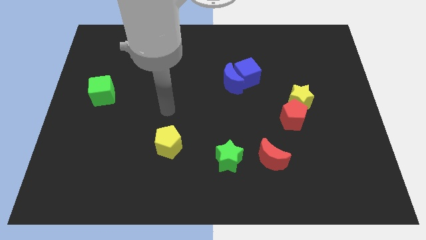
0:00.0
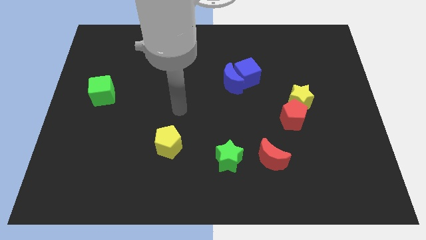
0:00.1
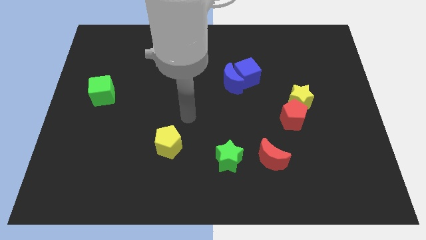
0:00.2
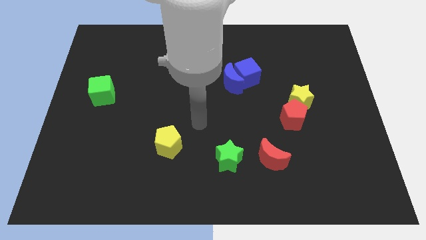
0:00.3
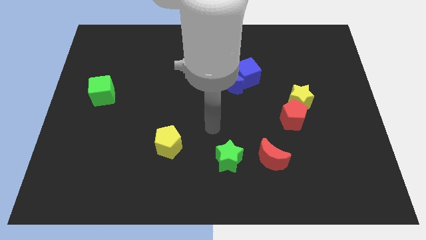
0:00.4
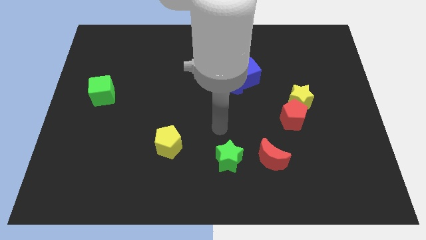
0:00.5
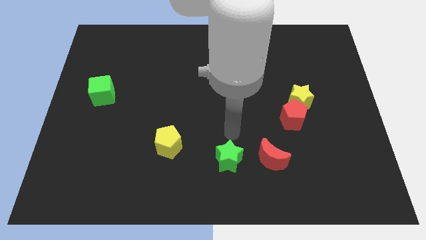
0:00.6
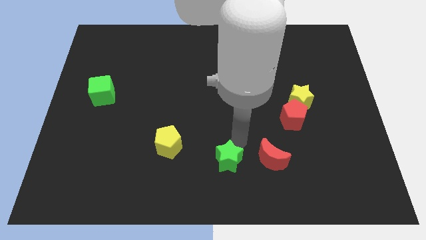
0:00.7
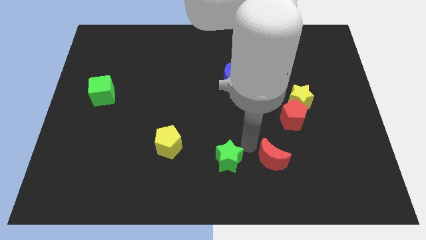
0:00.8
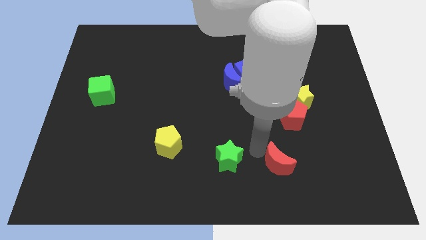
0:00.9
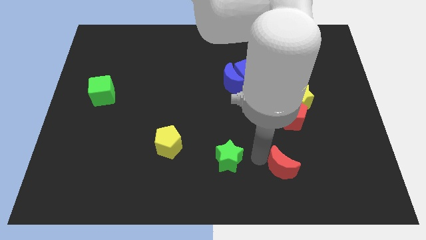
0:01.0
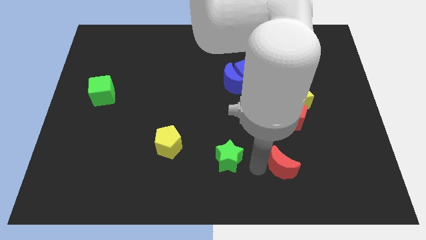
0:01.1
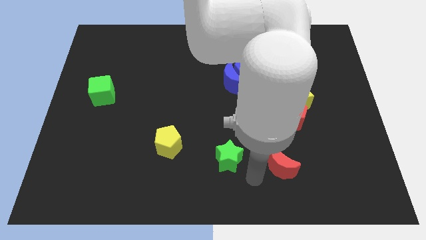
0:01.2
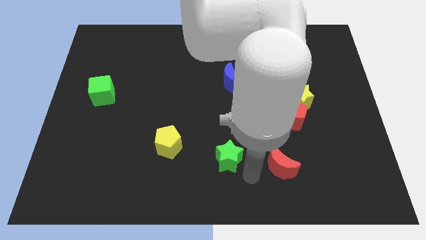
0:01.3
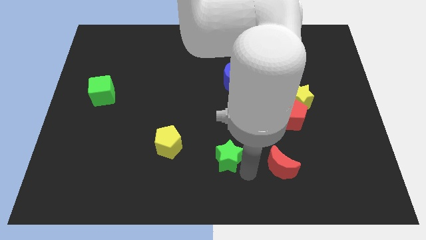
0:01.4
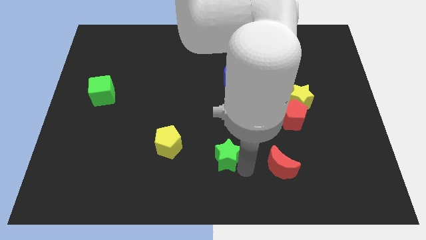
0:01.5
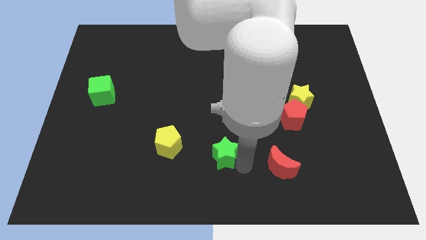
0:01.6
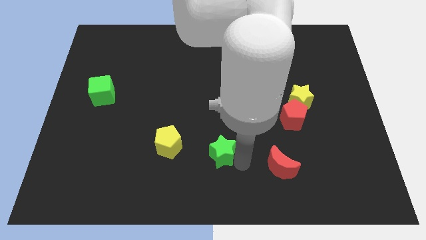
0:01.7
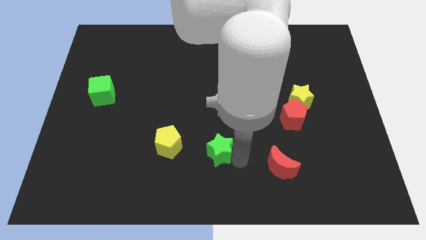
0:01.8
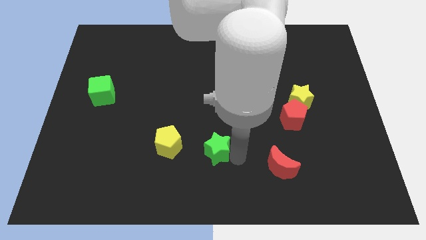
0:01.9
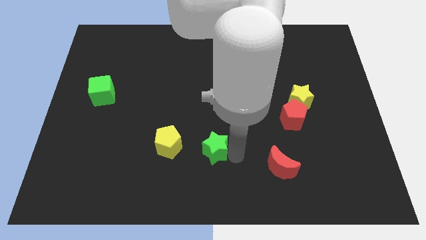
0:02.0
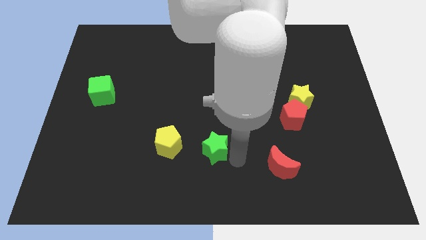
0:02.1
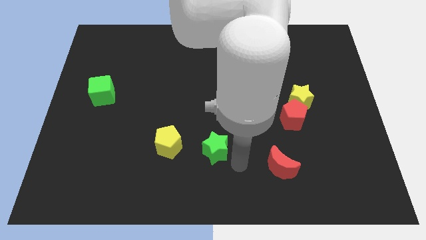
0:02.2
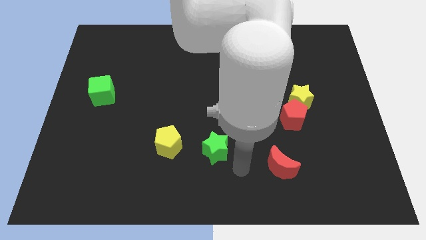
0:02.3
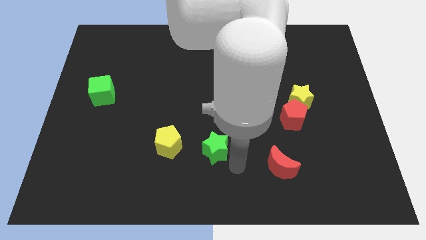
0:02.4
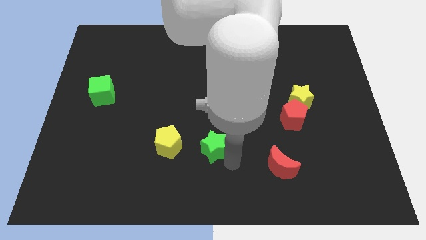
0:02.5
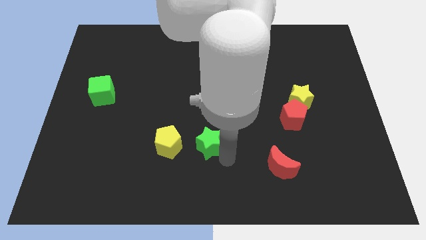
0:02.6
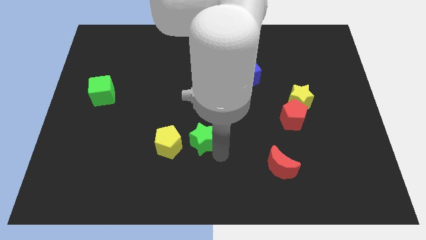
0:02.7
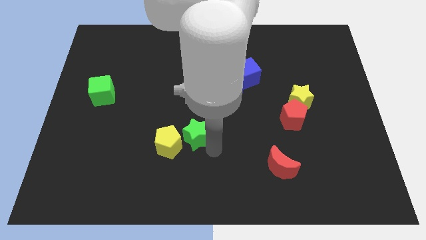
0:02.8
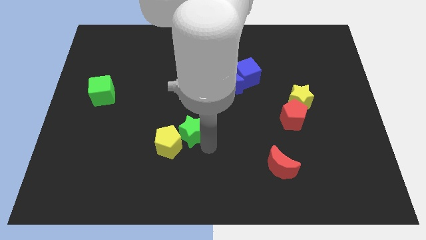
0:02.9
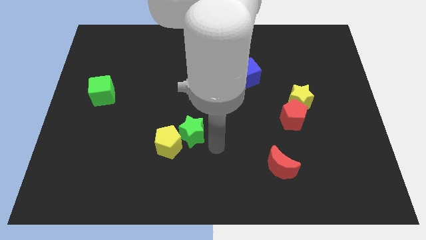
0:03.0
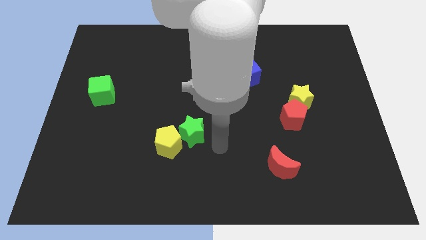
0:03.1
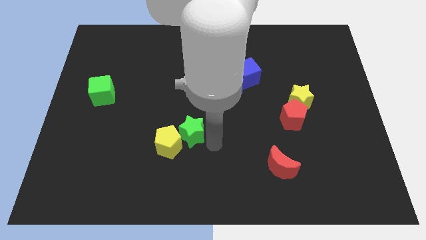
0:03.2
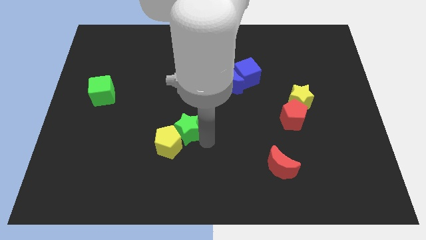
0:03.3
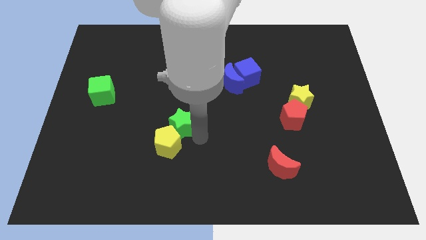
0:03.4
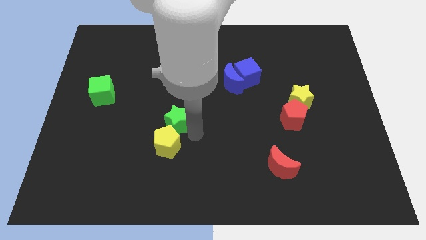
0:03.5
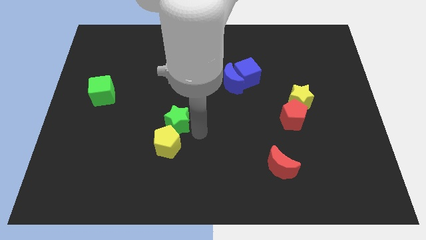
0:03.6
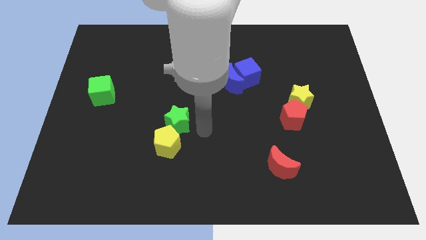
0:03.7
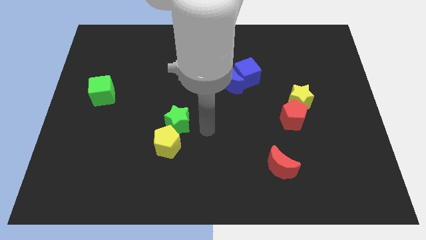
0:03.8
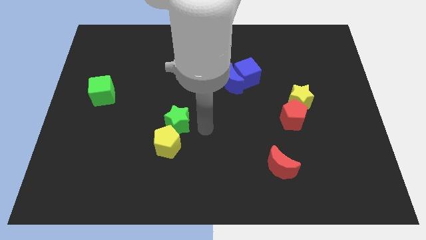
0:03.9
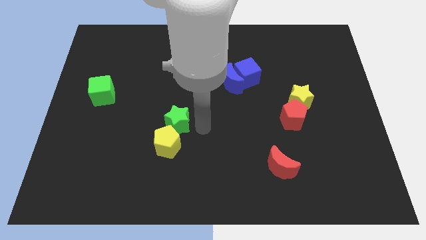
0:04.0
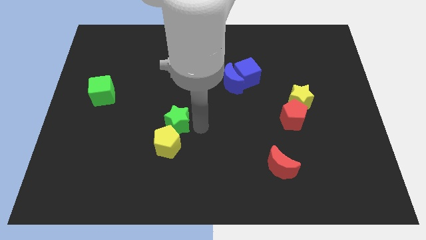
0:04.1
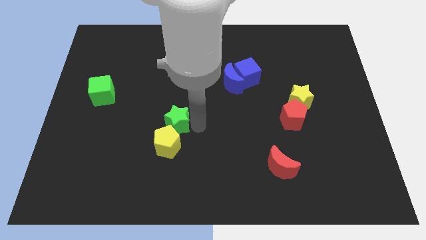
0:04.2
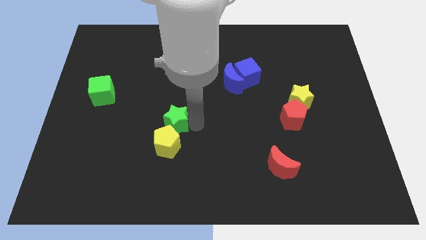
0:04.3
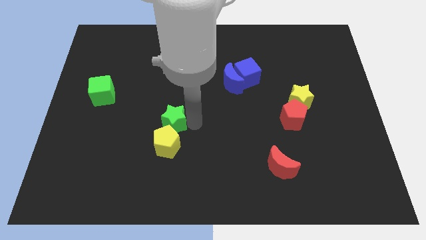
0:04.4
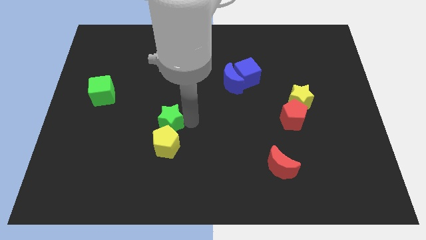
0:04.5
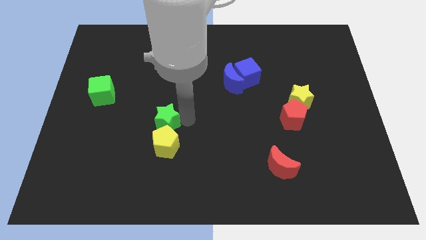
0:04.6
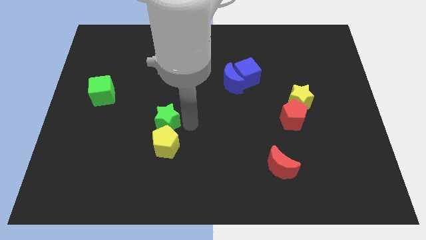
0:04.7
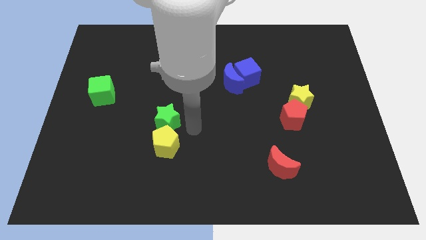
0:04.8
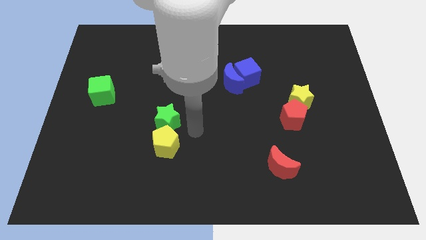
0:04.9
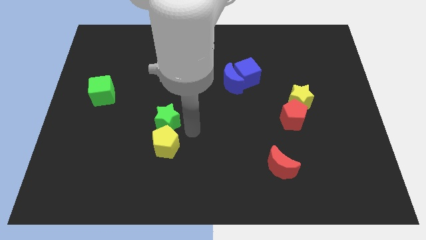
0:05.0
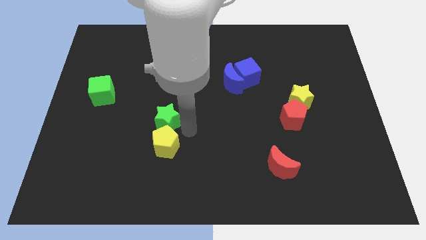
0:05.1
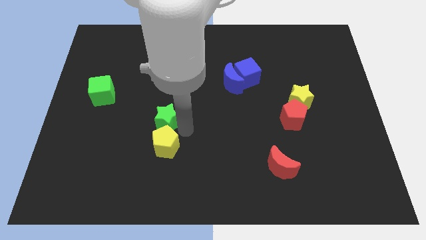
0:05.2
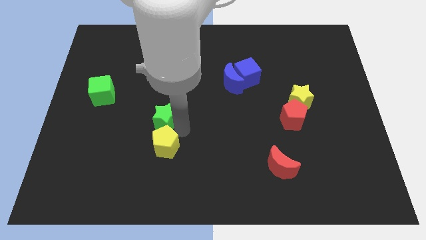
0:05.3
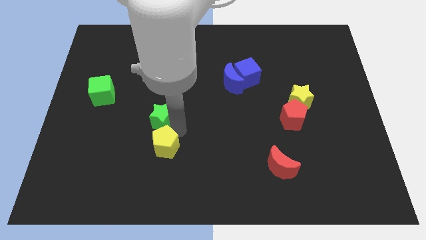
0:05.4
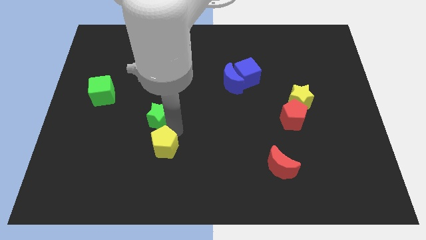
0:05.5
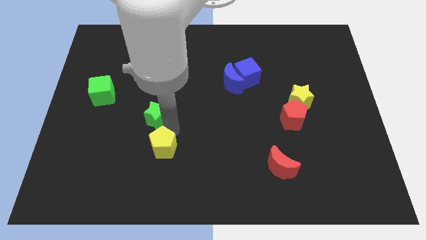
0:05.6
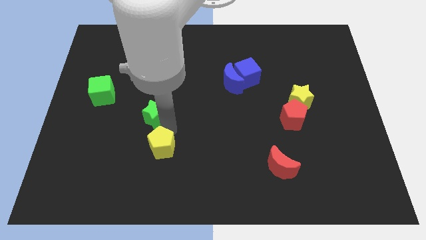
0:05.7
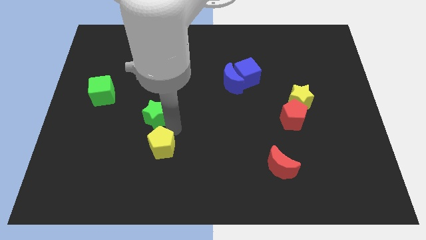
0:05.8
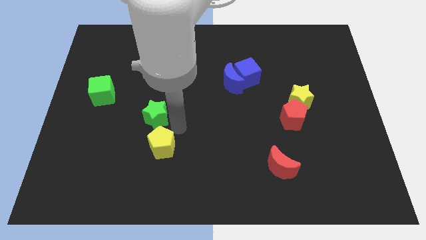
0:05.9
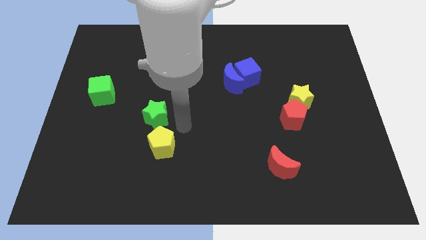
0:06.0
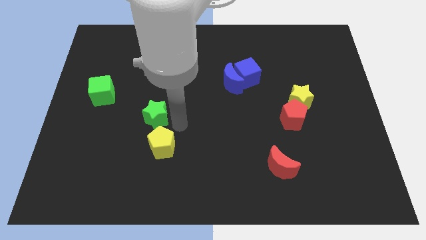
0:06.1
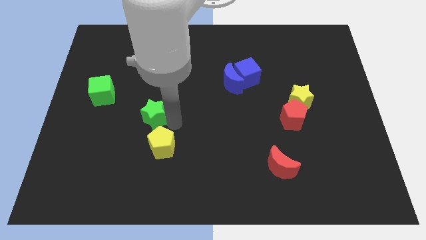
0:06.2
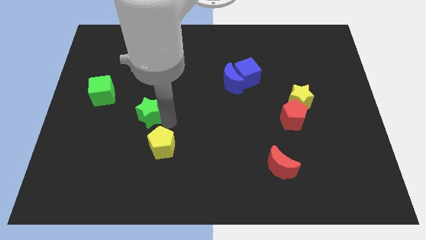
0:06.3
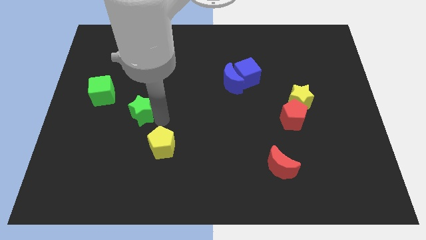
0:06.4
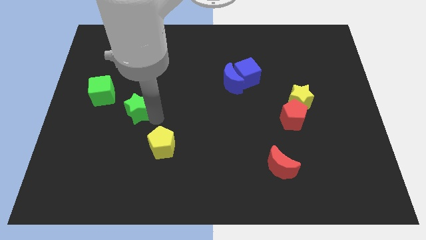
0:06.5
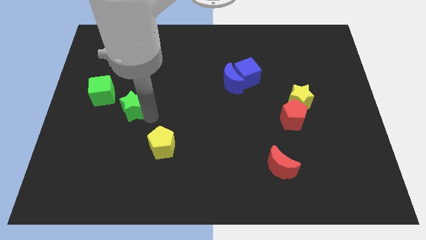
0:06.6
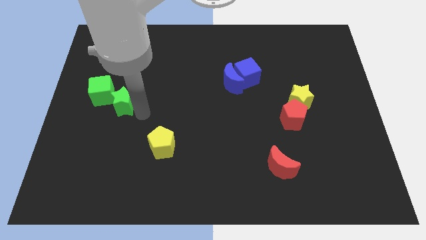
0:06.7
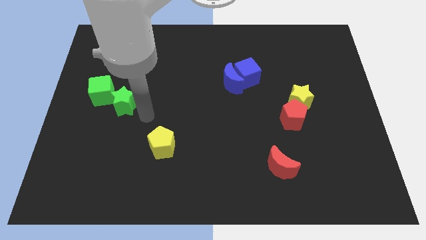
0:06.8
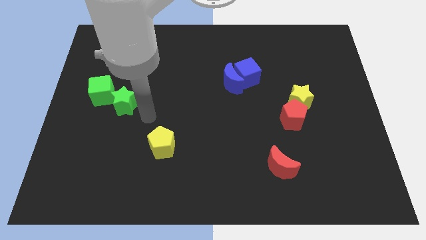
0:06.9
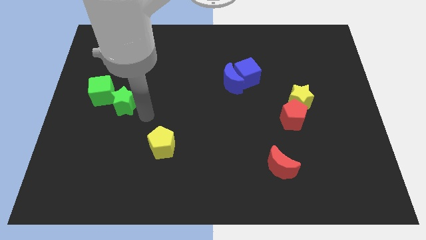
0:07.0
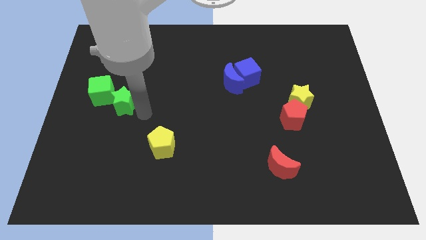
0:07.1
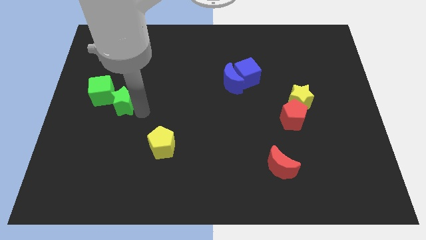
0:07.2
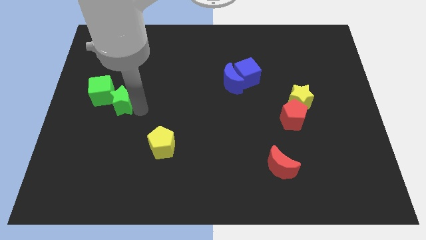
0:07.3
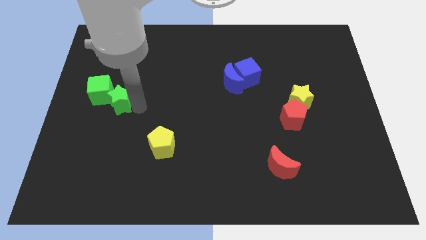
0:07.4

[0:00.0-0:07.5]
push the green star to the green cube
